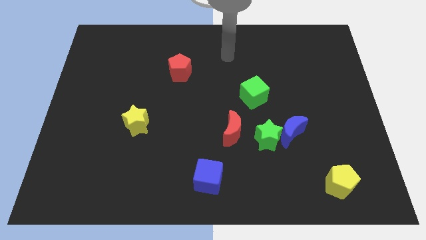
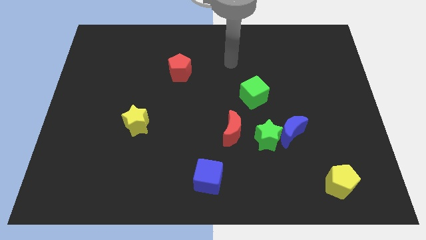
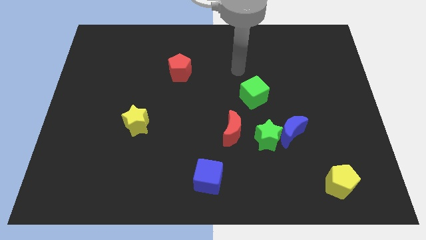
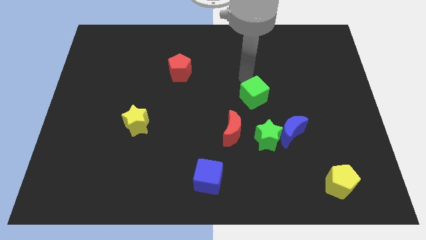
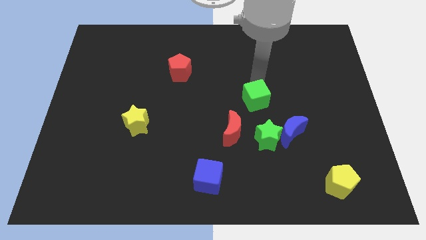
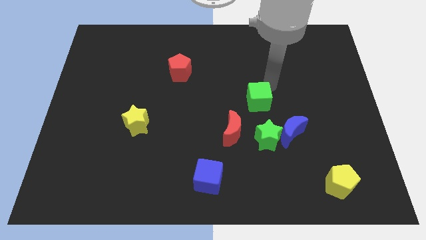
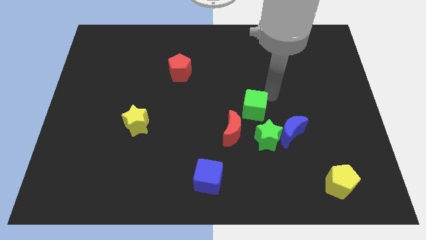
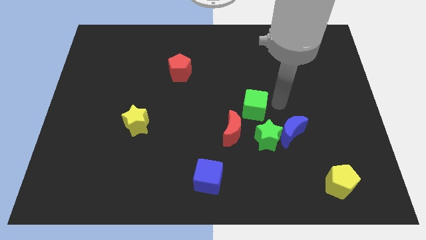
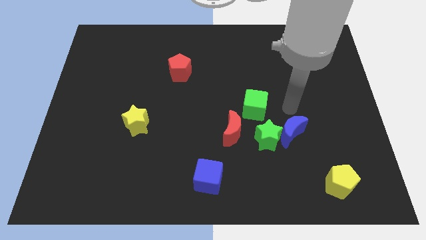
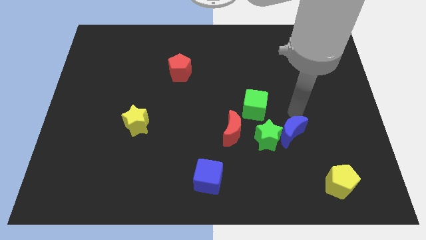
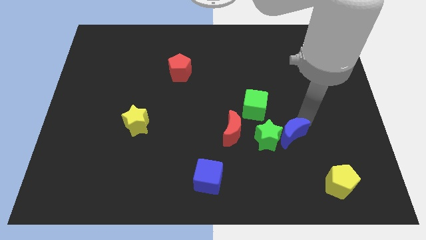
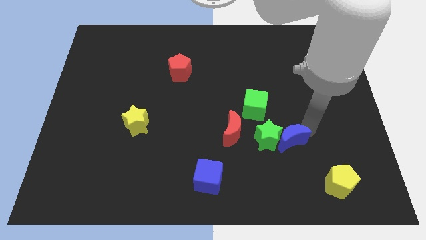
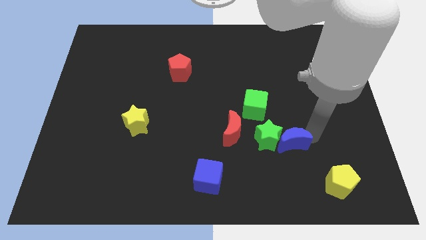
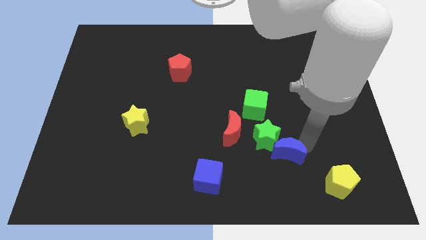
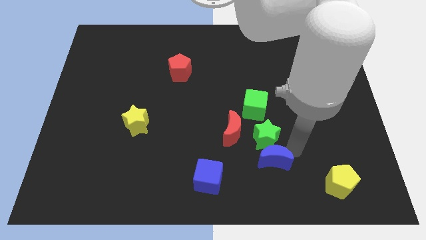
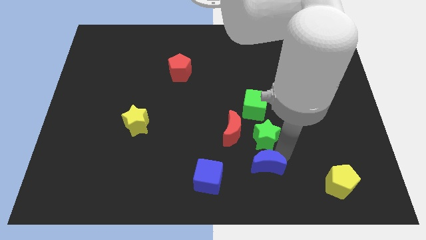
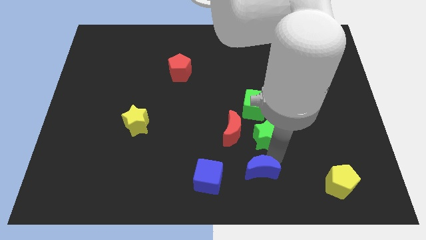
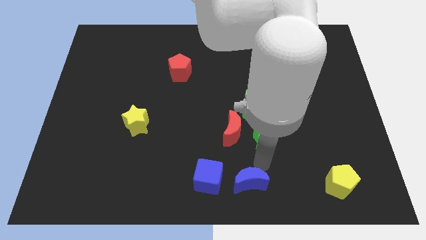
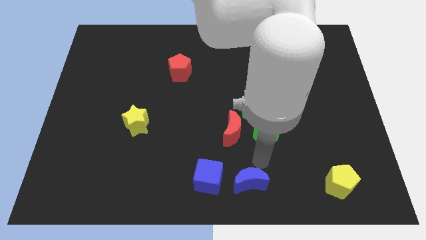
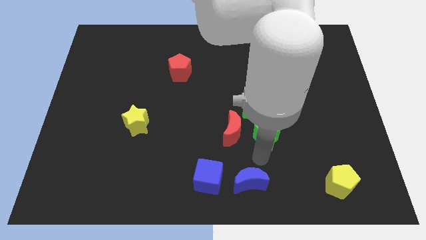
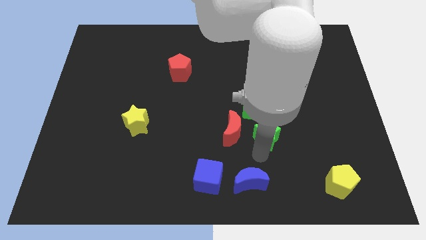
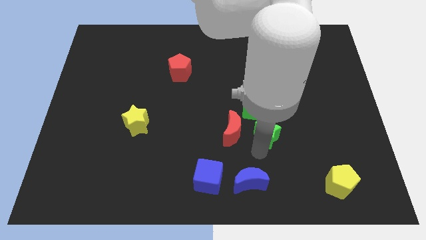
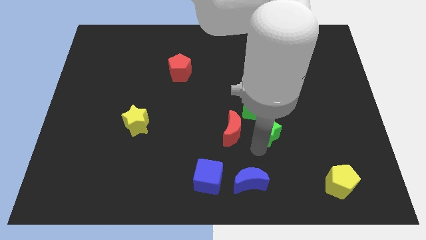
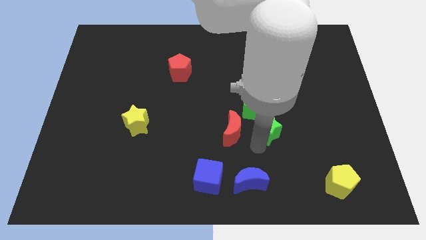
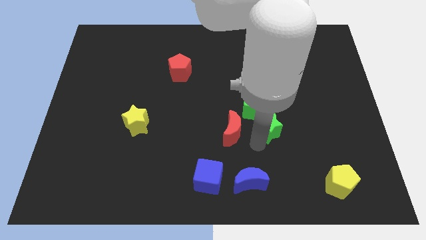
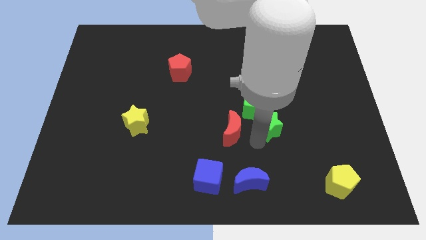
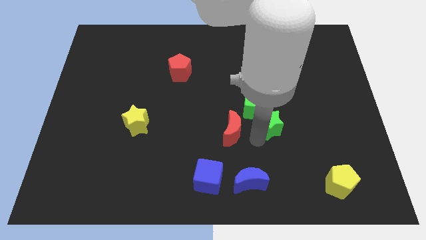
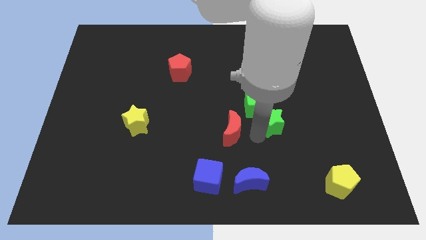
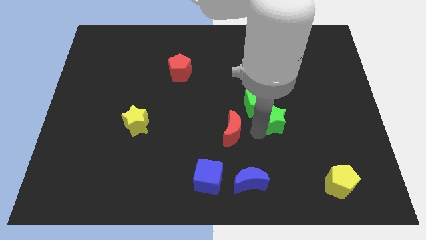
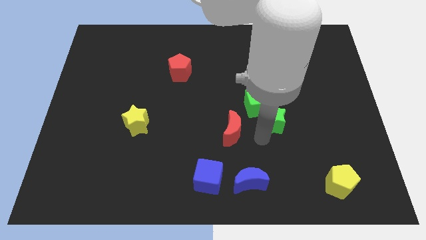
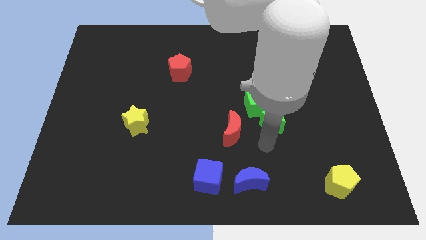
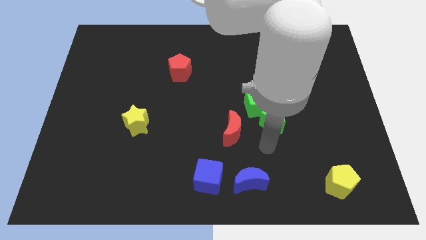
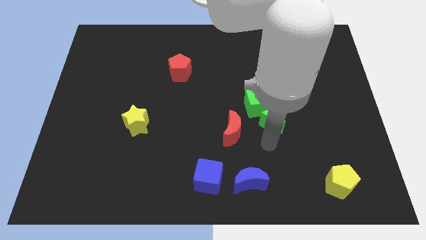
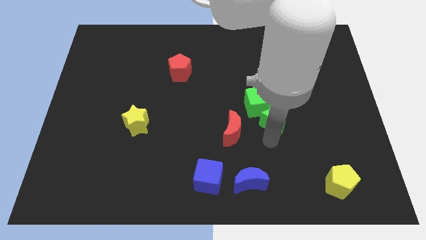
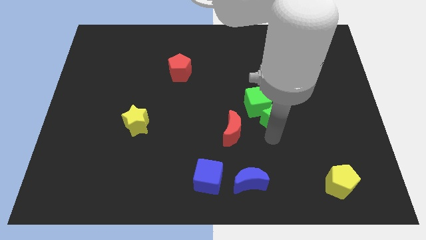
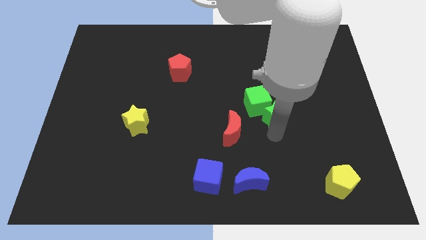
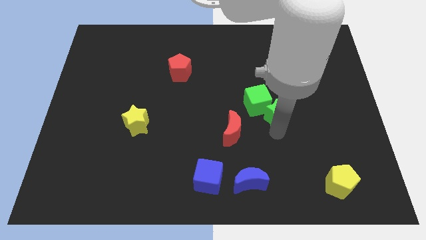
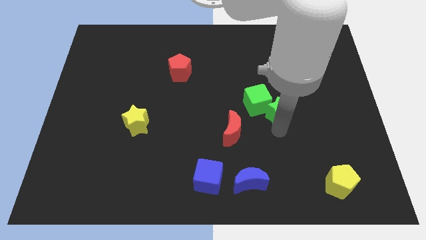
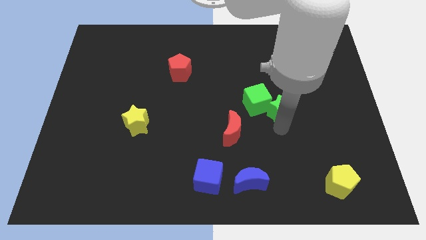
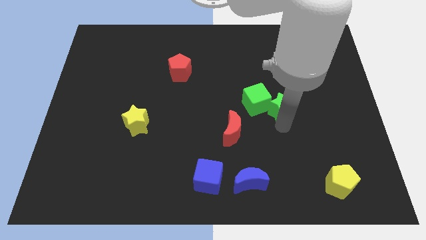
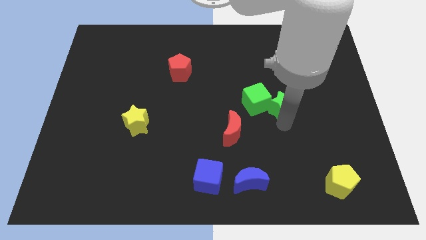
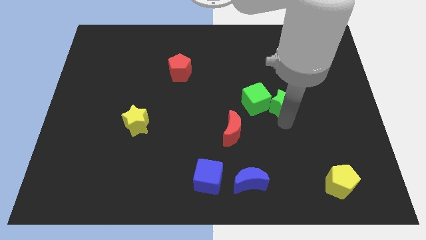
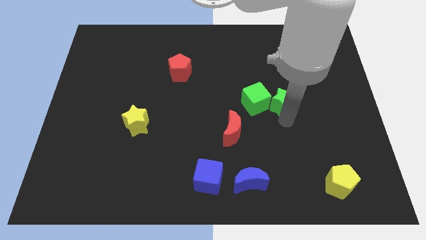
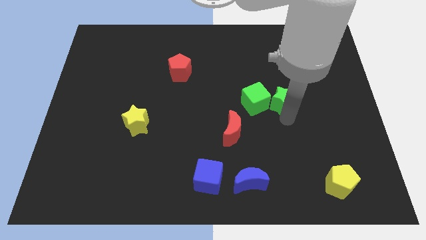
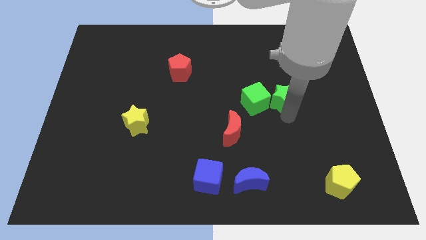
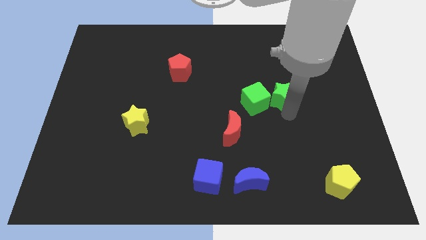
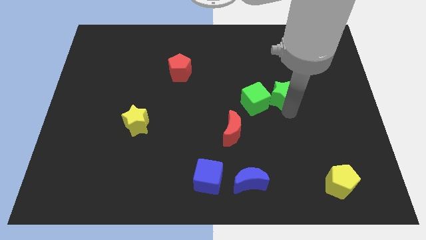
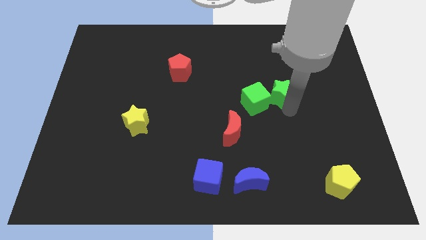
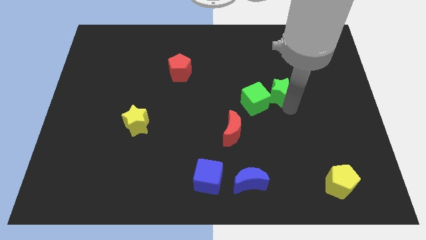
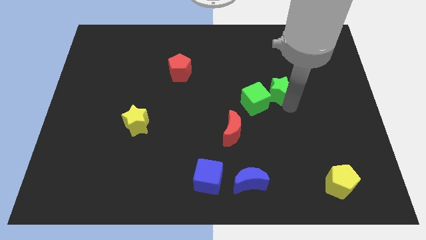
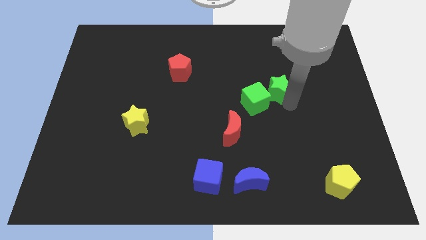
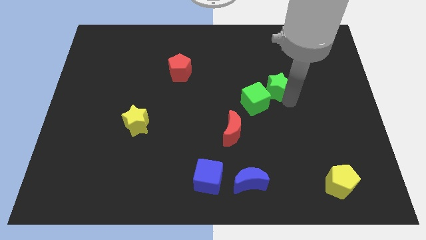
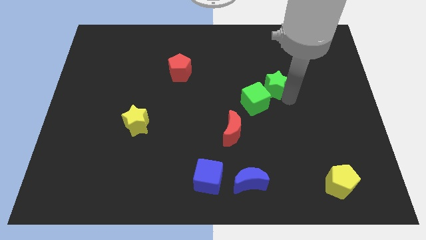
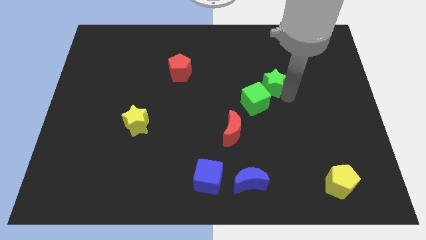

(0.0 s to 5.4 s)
move the green star above the green cube

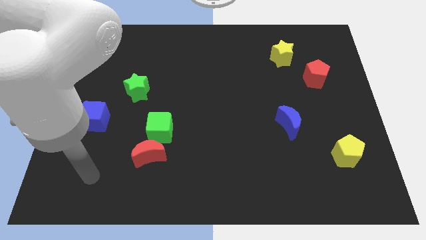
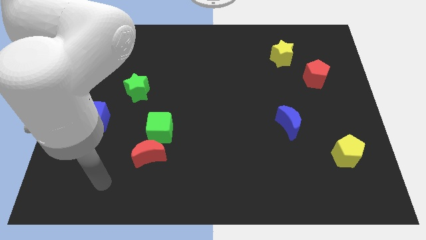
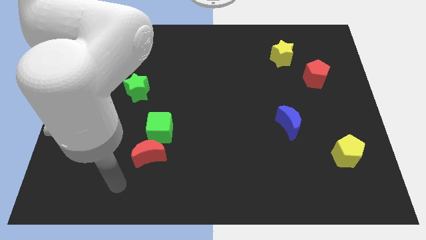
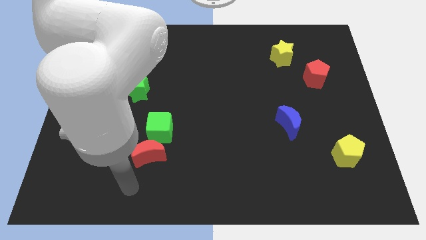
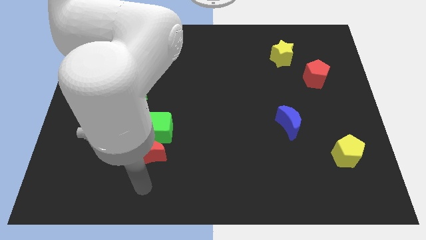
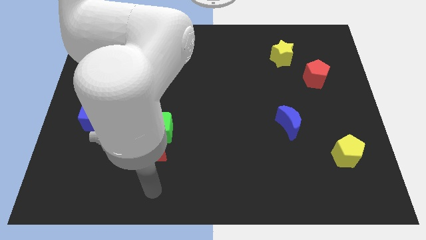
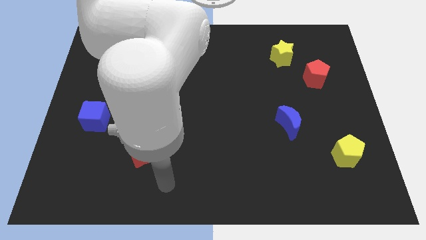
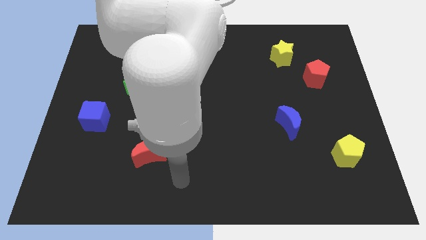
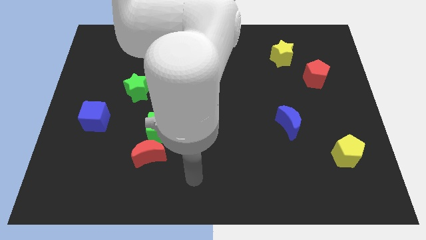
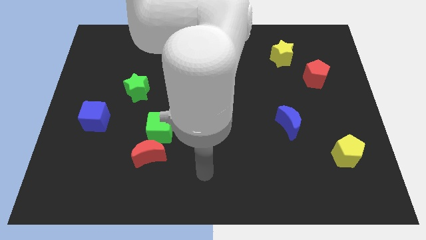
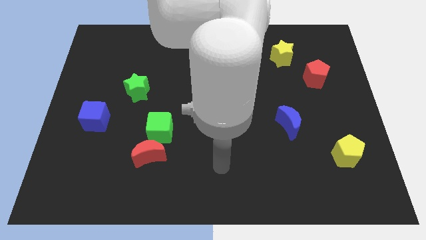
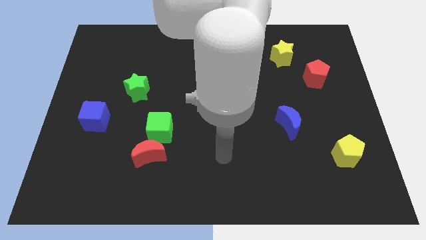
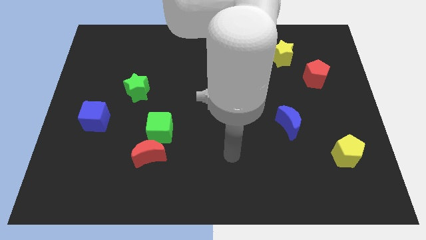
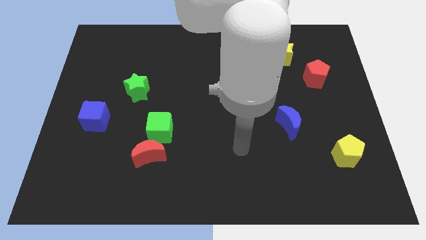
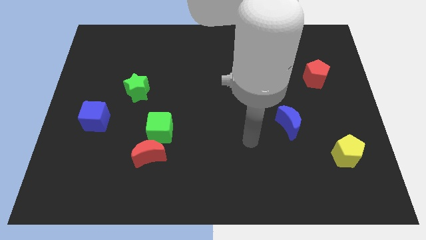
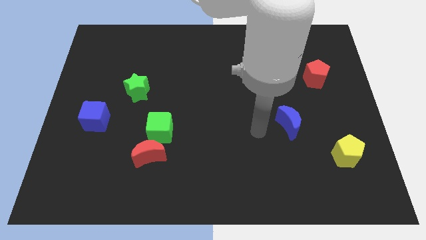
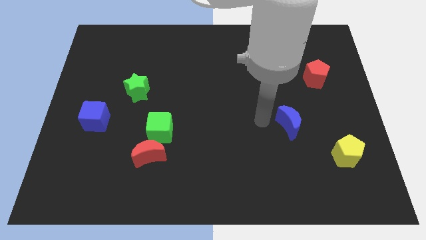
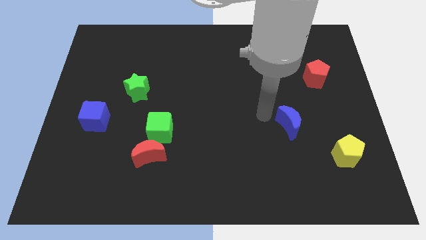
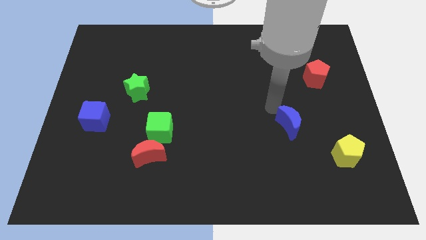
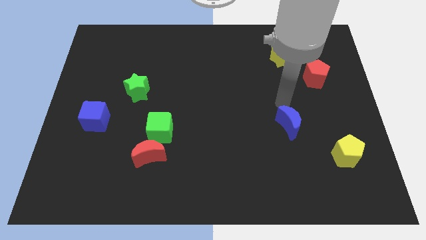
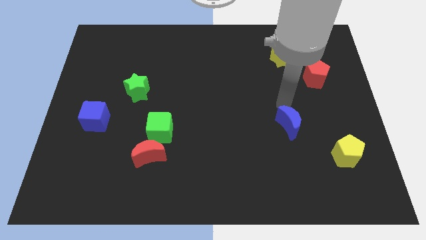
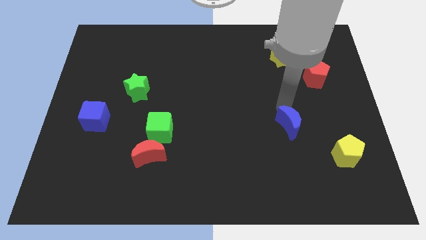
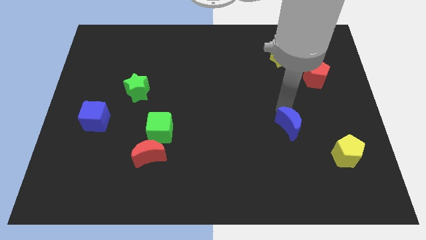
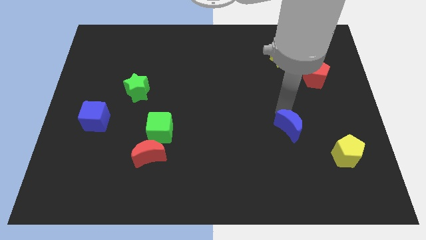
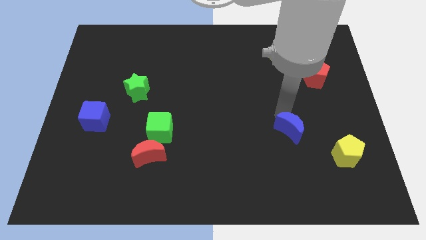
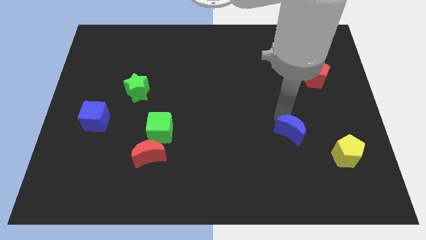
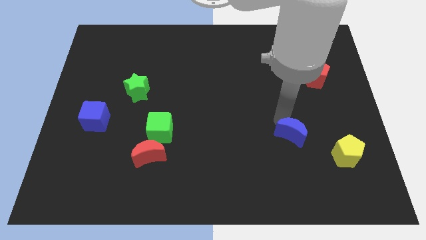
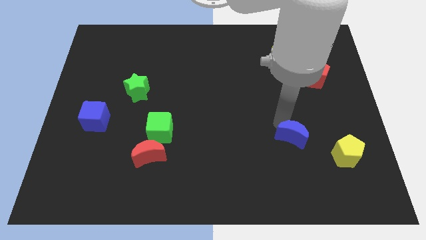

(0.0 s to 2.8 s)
put the blue moon just left of the yellow pentagon
